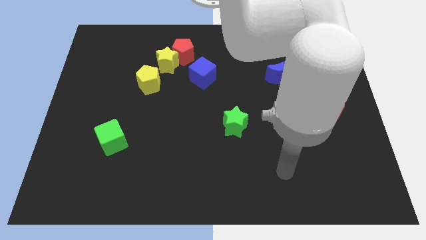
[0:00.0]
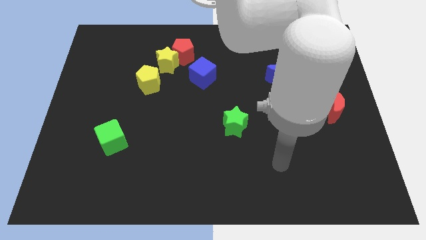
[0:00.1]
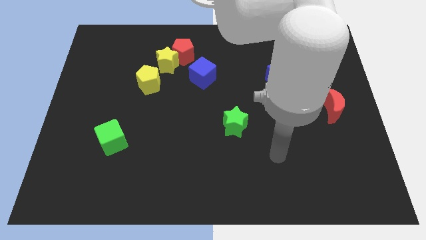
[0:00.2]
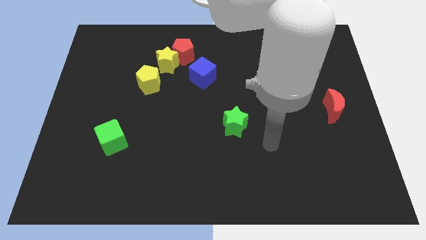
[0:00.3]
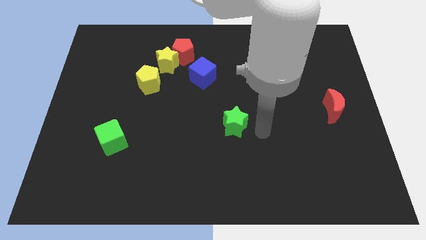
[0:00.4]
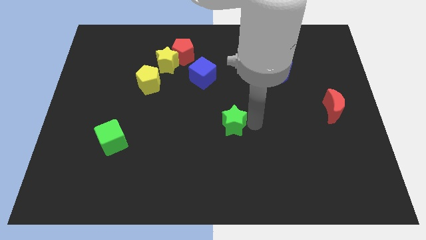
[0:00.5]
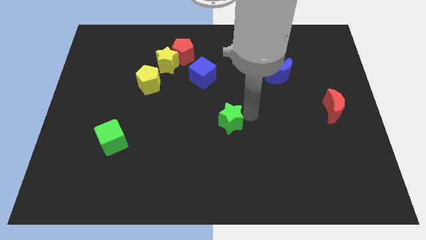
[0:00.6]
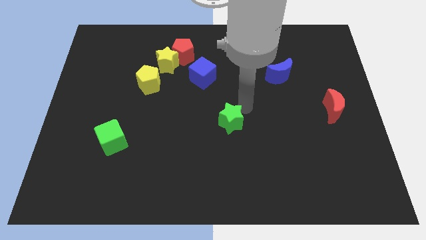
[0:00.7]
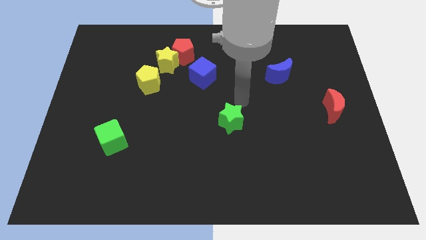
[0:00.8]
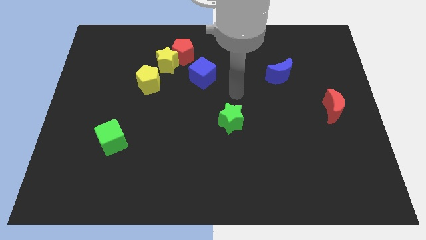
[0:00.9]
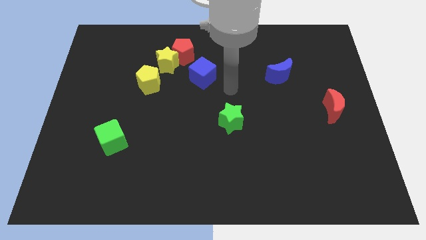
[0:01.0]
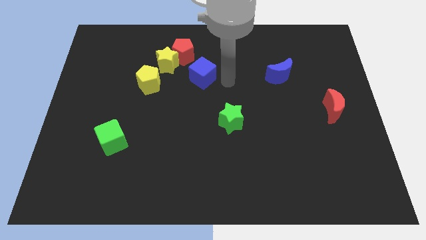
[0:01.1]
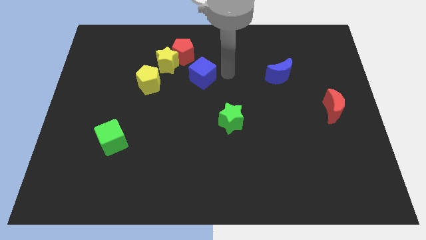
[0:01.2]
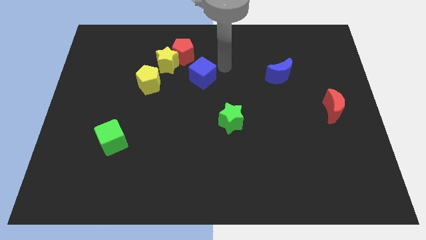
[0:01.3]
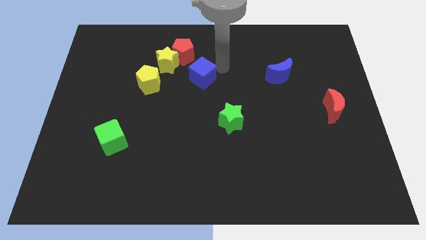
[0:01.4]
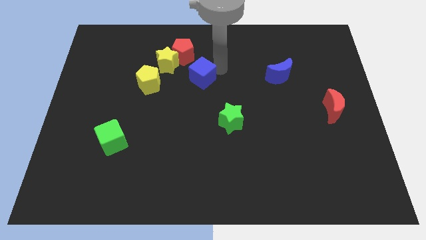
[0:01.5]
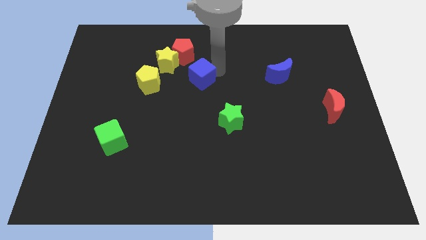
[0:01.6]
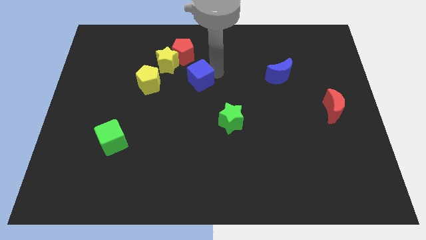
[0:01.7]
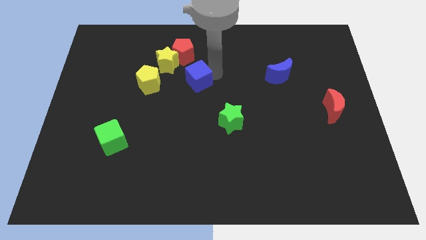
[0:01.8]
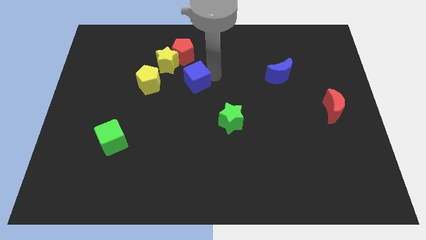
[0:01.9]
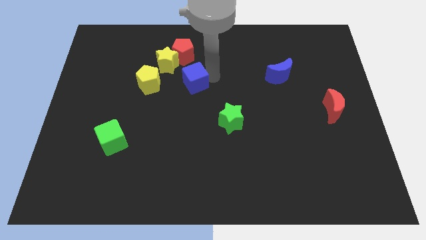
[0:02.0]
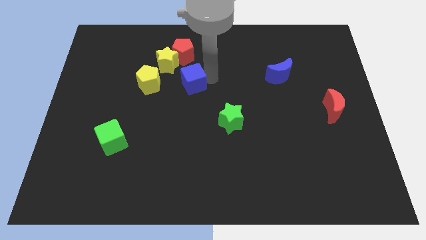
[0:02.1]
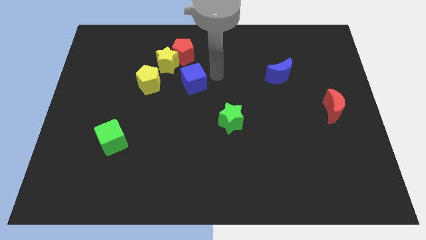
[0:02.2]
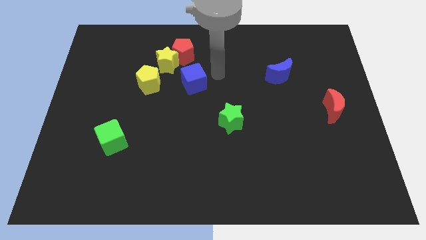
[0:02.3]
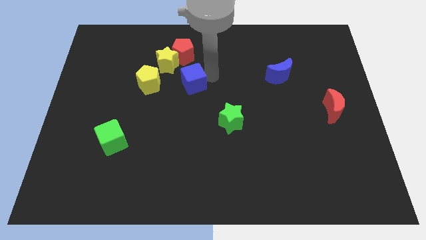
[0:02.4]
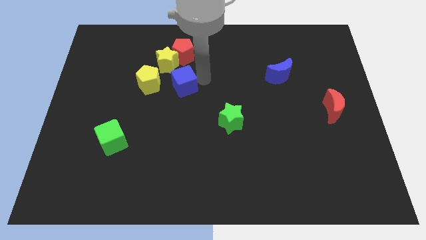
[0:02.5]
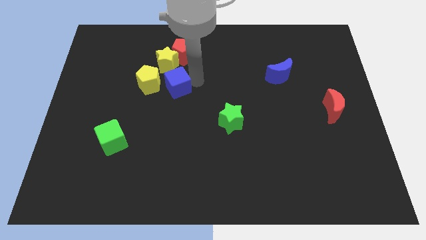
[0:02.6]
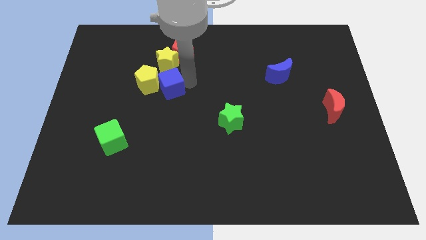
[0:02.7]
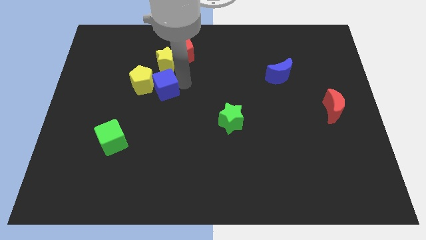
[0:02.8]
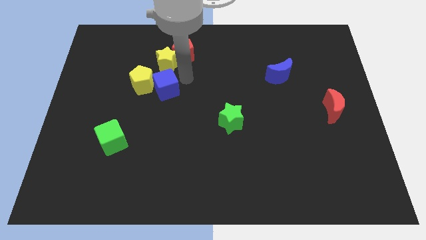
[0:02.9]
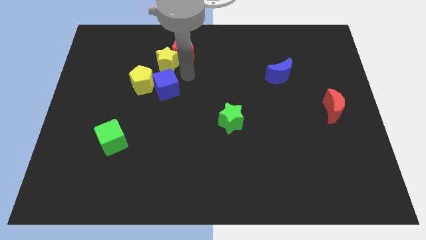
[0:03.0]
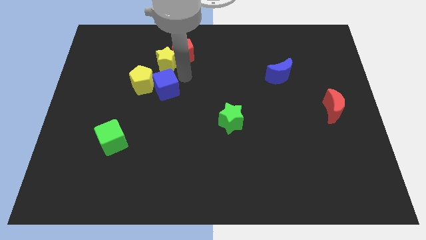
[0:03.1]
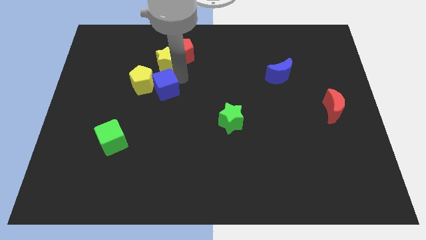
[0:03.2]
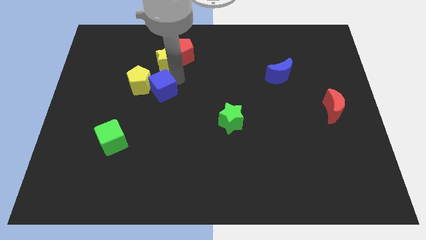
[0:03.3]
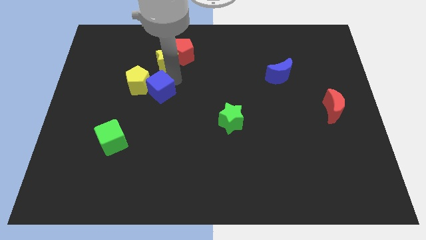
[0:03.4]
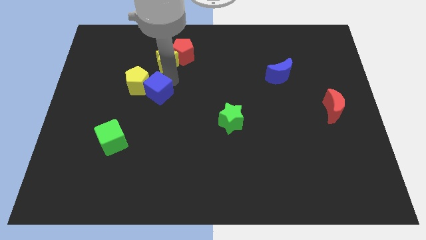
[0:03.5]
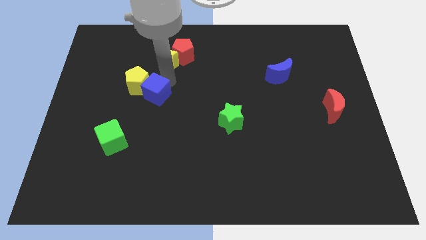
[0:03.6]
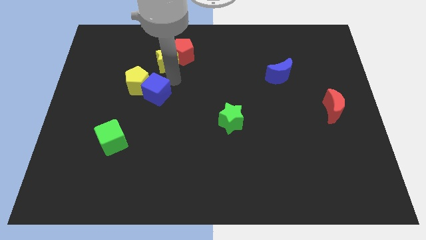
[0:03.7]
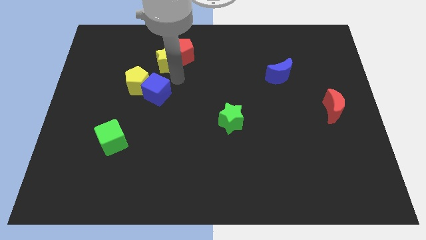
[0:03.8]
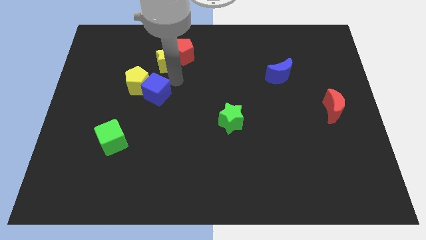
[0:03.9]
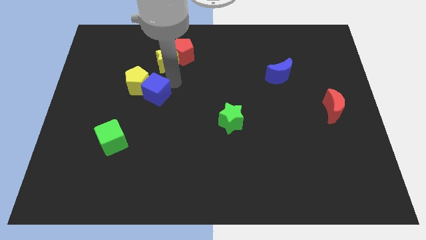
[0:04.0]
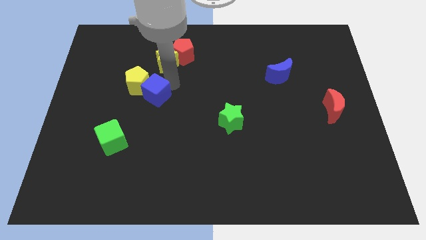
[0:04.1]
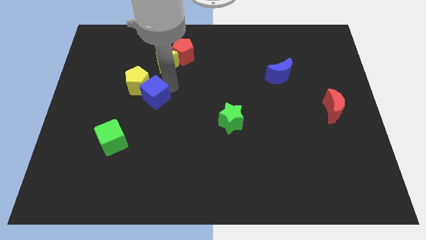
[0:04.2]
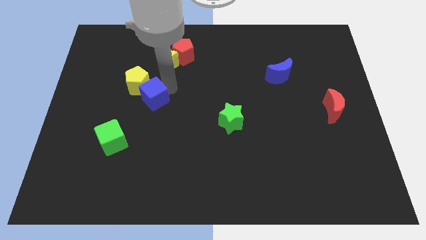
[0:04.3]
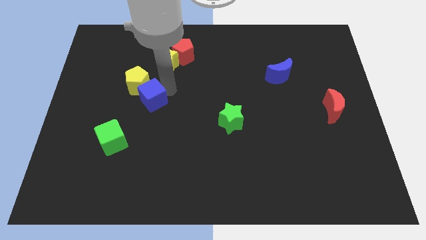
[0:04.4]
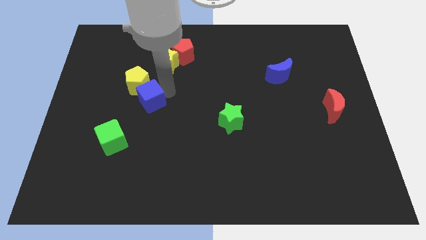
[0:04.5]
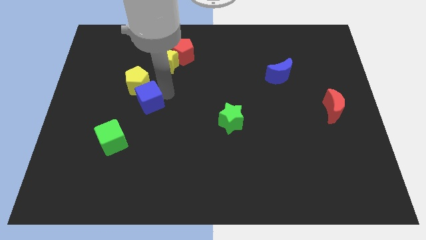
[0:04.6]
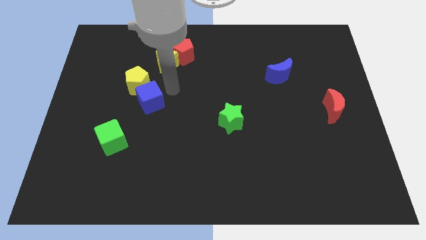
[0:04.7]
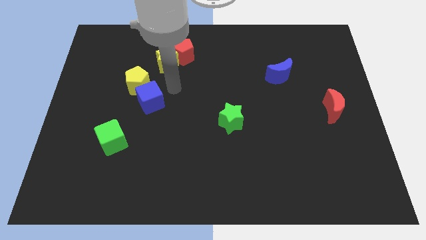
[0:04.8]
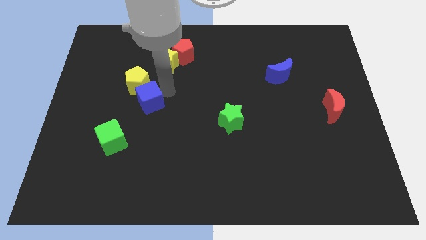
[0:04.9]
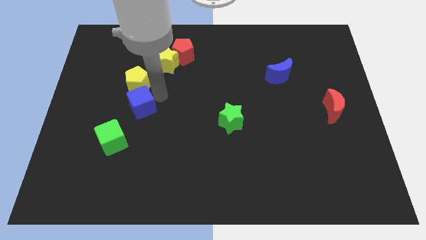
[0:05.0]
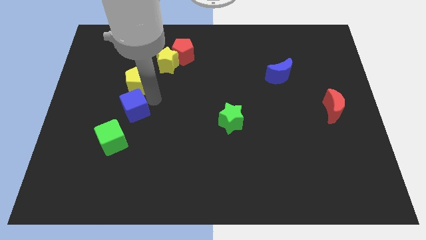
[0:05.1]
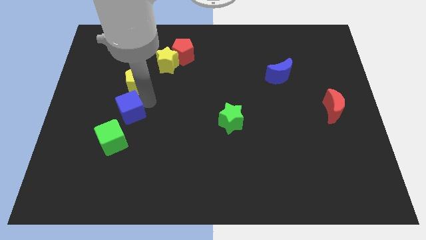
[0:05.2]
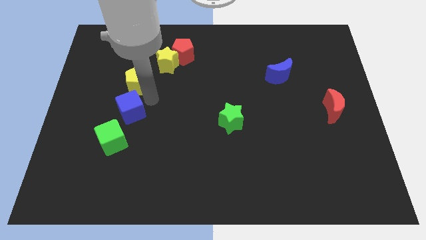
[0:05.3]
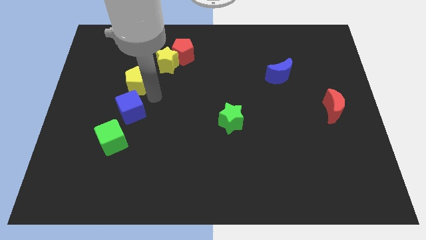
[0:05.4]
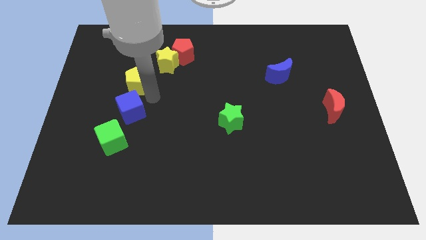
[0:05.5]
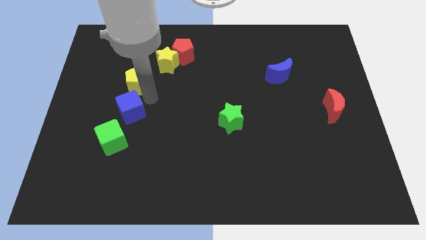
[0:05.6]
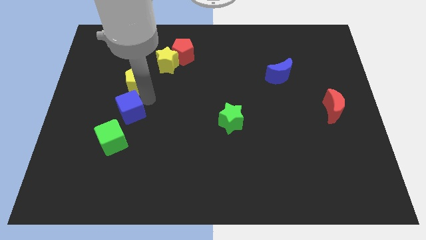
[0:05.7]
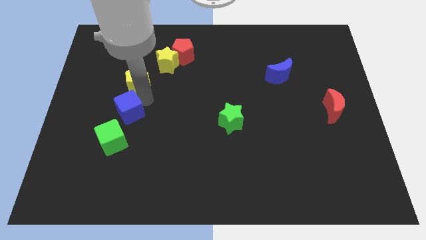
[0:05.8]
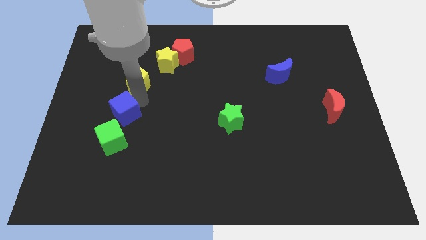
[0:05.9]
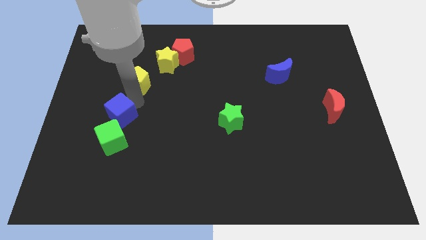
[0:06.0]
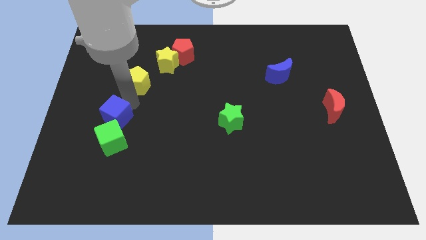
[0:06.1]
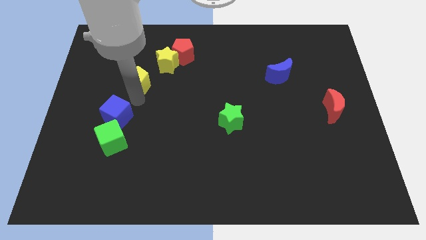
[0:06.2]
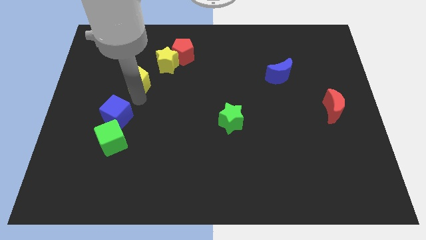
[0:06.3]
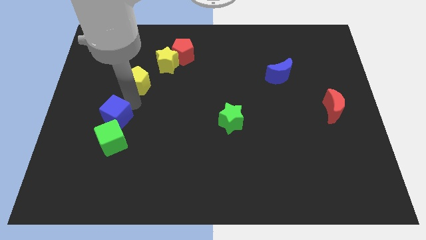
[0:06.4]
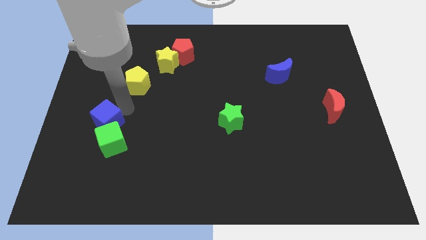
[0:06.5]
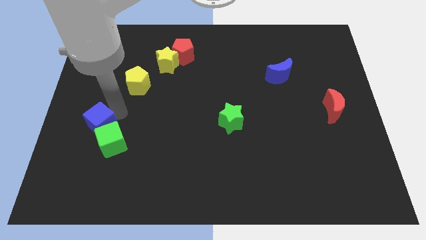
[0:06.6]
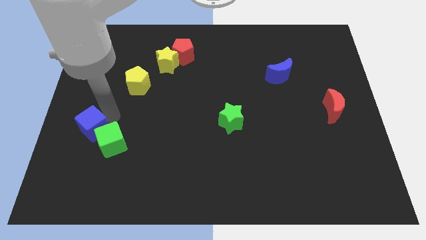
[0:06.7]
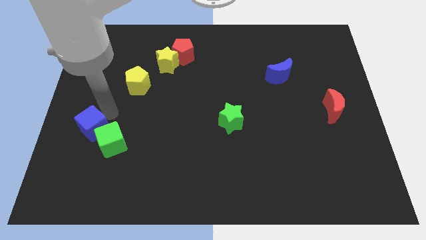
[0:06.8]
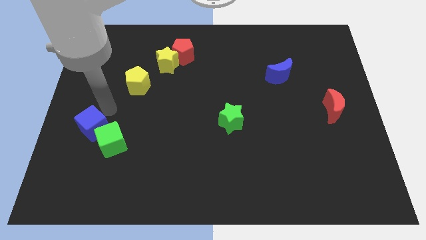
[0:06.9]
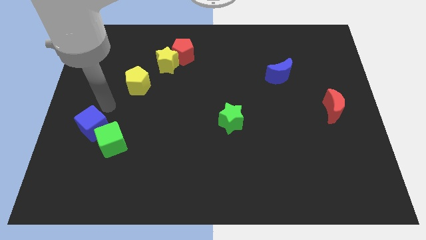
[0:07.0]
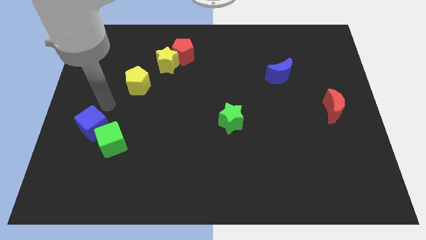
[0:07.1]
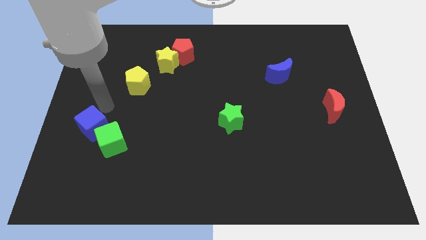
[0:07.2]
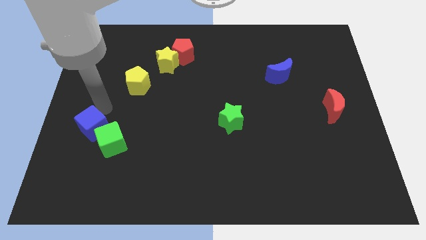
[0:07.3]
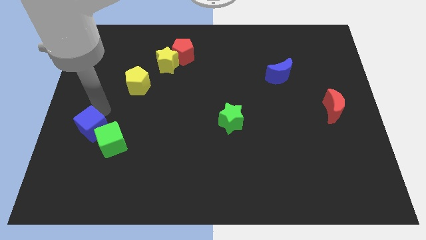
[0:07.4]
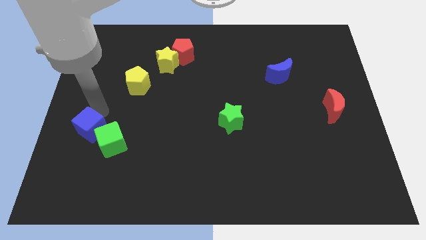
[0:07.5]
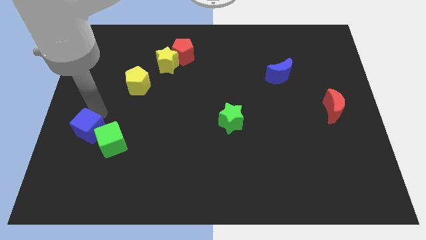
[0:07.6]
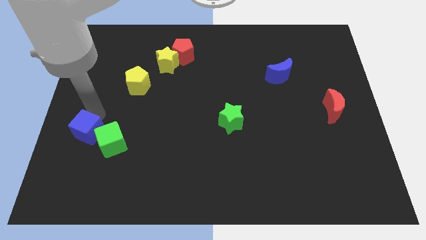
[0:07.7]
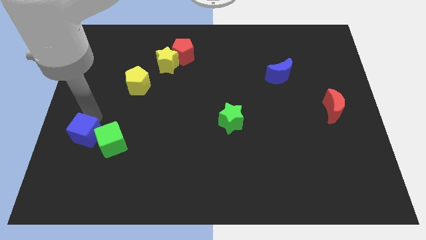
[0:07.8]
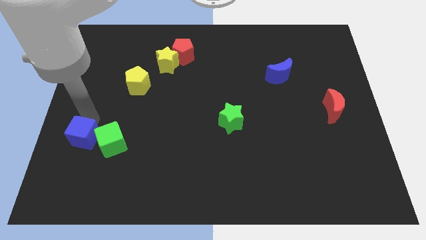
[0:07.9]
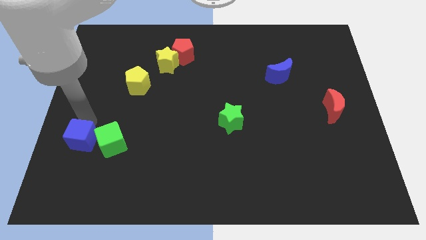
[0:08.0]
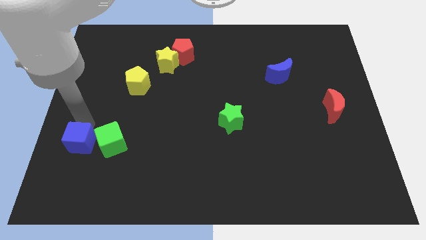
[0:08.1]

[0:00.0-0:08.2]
slide the blue cube to the bottom left of the green cube
